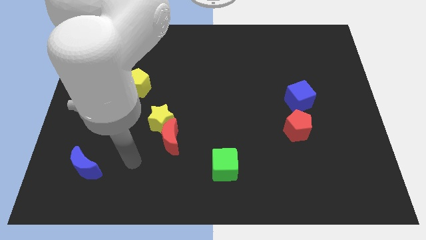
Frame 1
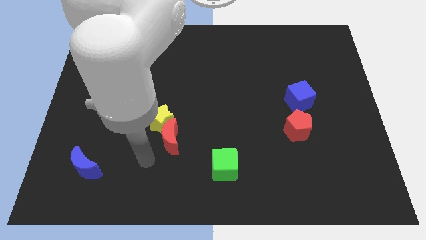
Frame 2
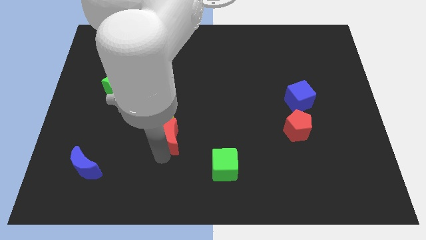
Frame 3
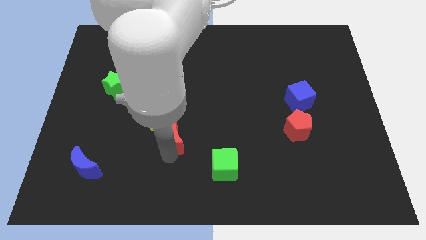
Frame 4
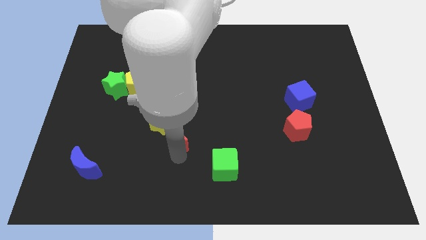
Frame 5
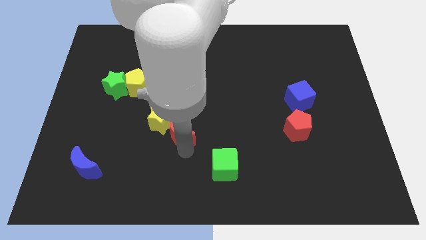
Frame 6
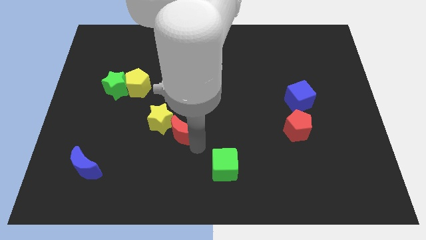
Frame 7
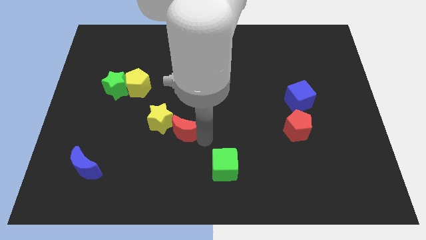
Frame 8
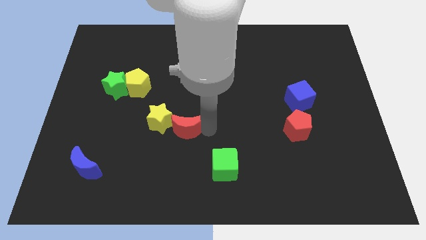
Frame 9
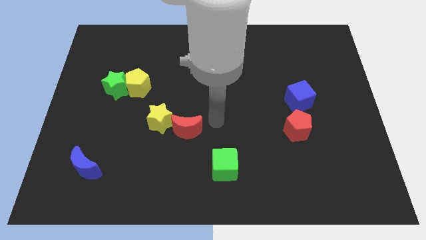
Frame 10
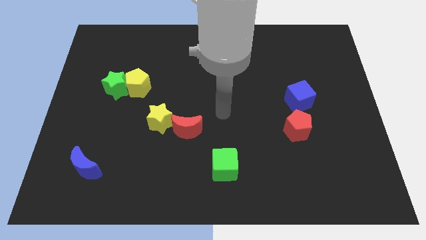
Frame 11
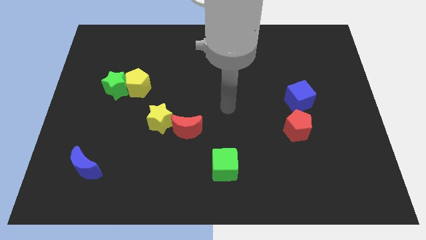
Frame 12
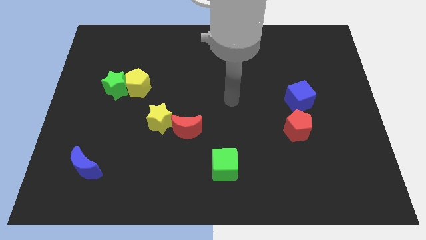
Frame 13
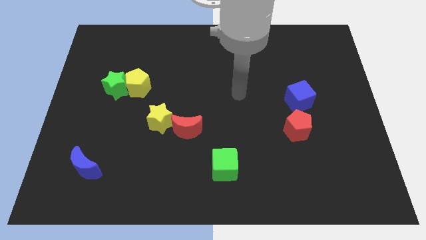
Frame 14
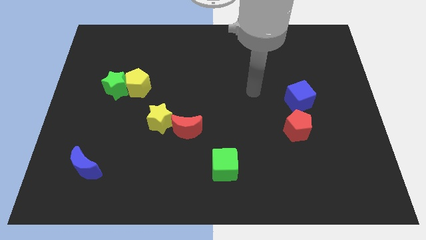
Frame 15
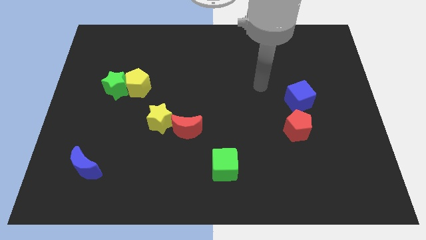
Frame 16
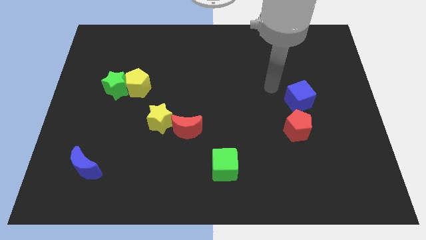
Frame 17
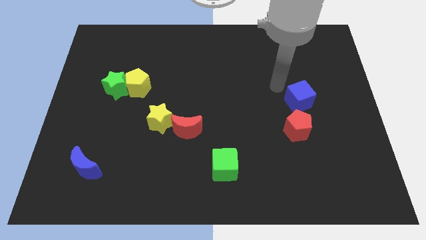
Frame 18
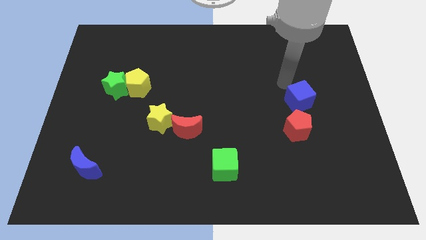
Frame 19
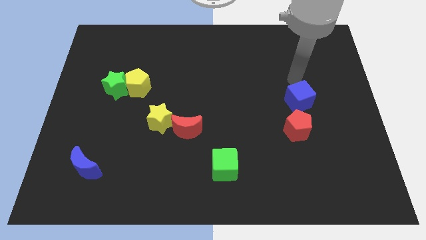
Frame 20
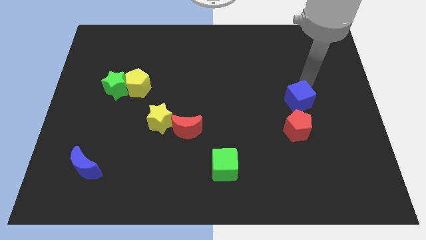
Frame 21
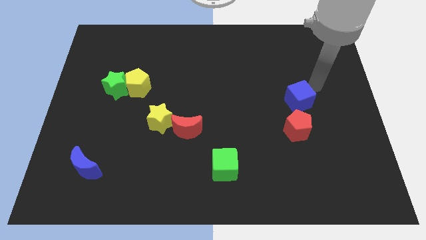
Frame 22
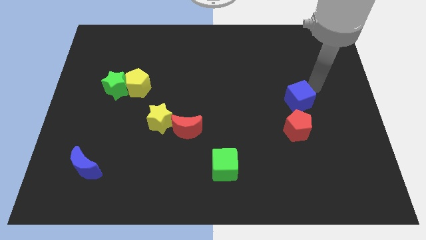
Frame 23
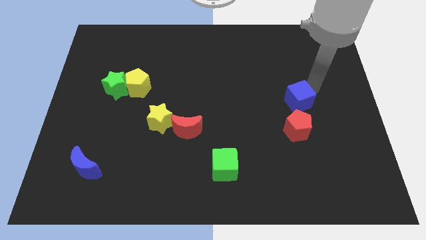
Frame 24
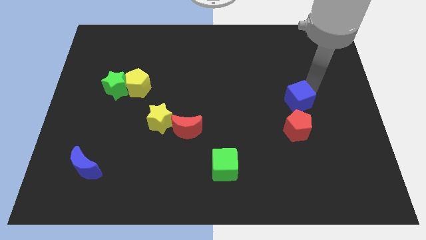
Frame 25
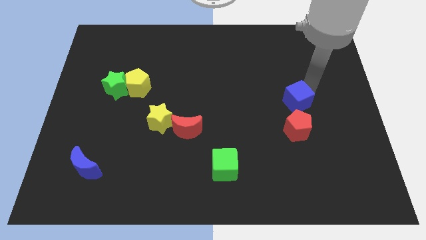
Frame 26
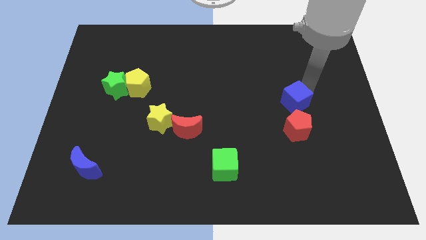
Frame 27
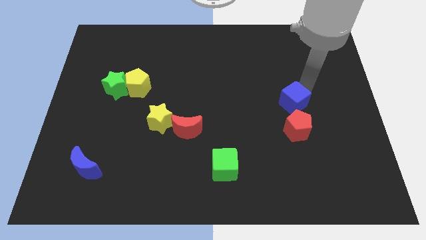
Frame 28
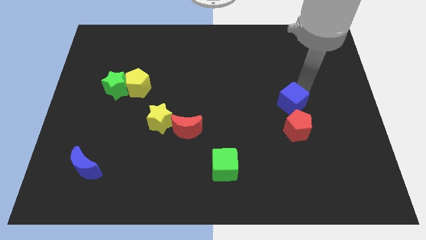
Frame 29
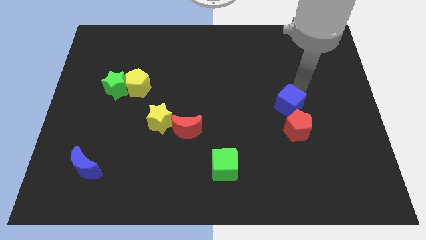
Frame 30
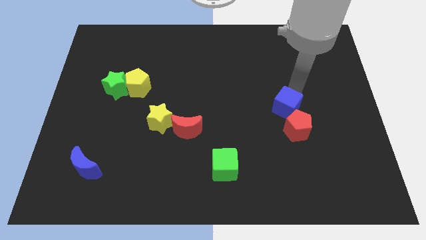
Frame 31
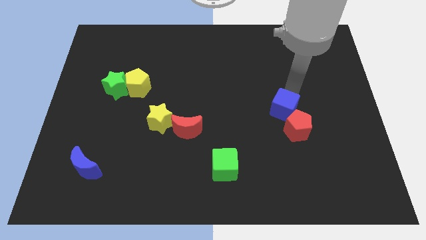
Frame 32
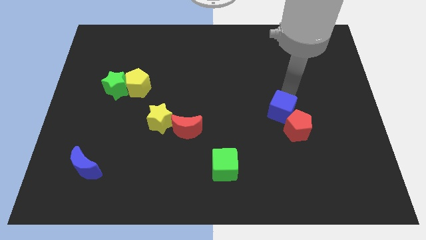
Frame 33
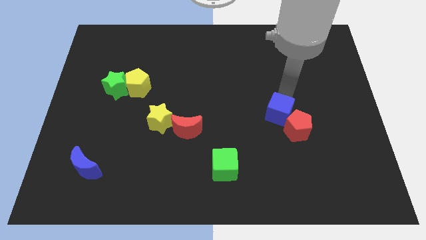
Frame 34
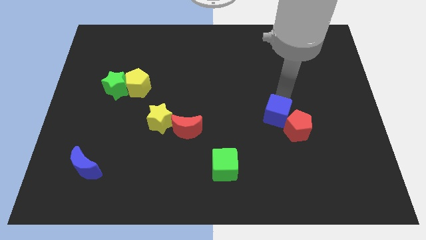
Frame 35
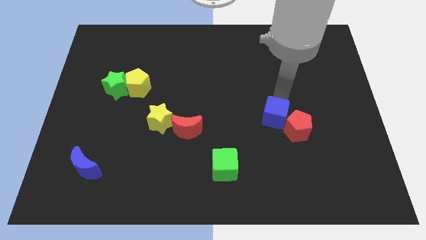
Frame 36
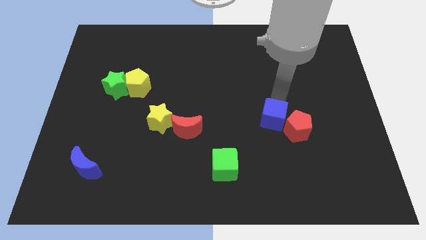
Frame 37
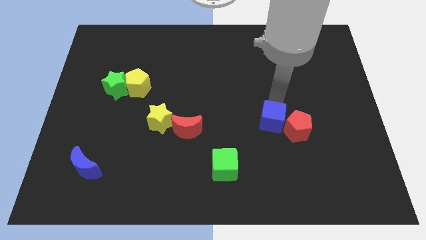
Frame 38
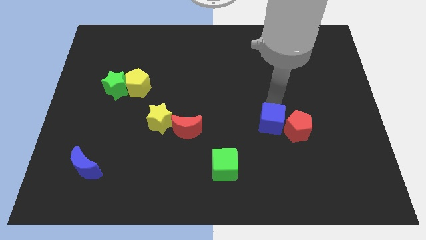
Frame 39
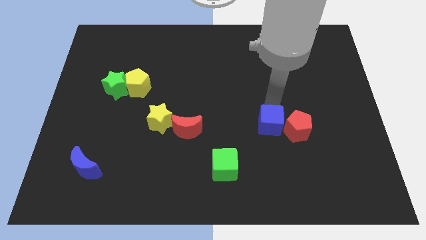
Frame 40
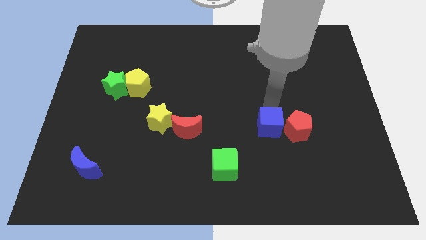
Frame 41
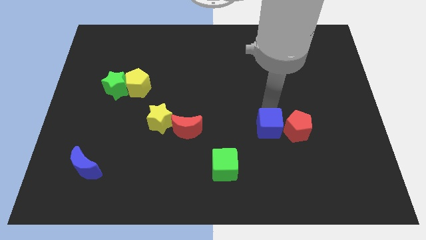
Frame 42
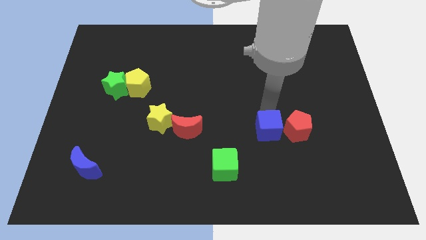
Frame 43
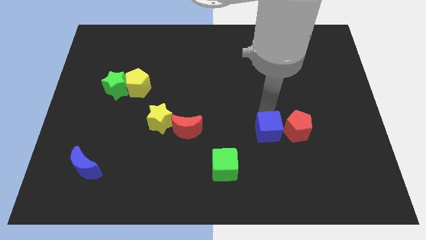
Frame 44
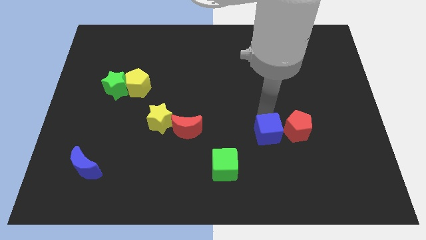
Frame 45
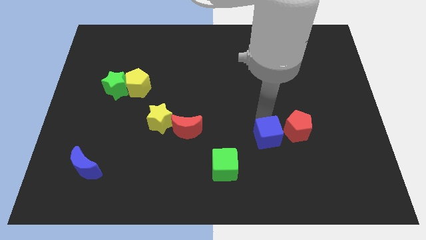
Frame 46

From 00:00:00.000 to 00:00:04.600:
push the blue cube slightly downwards

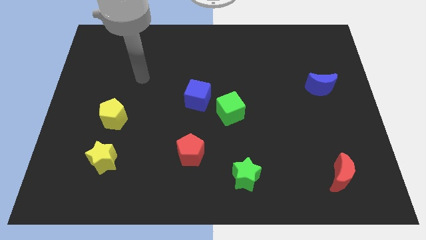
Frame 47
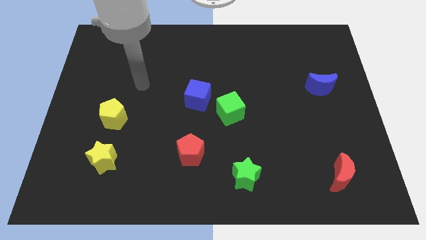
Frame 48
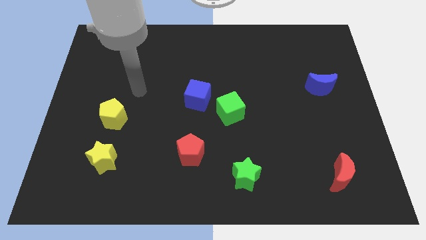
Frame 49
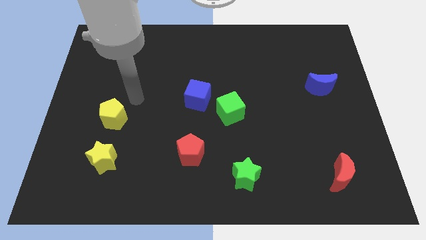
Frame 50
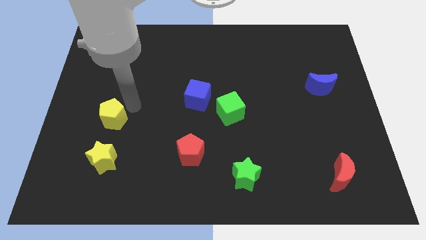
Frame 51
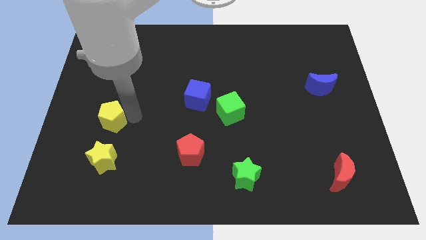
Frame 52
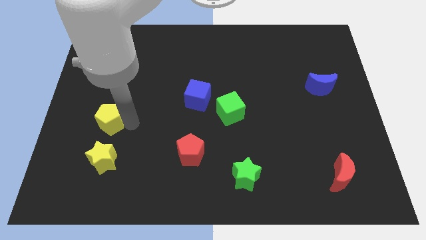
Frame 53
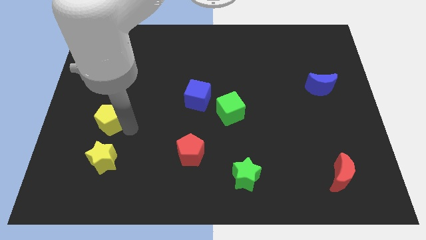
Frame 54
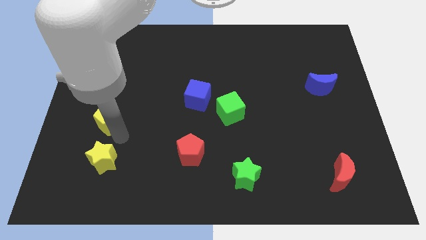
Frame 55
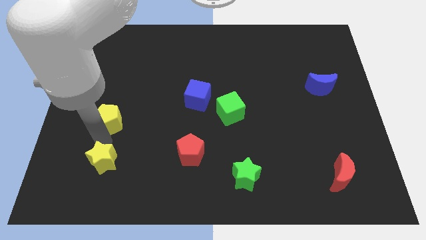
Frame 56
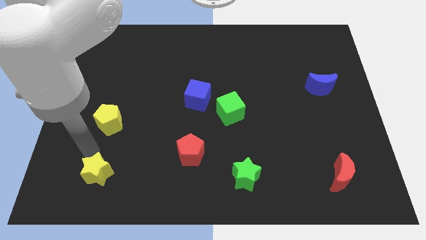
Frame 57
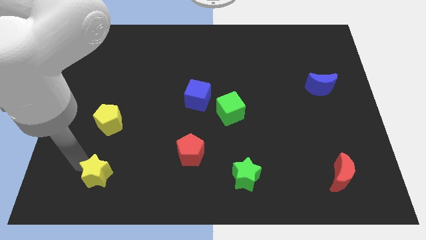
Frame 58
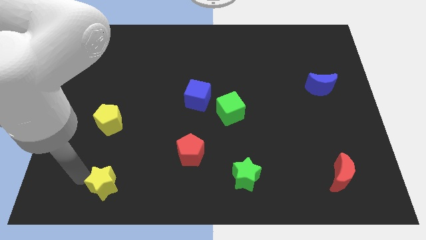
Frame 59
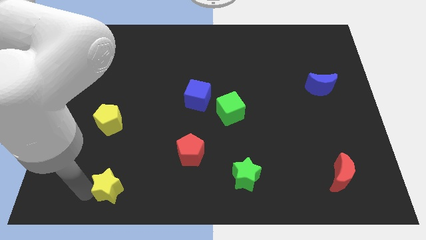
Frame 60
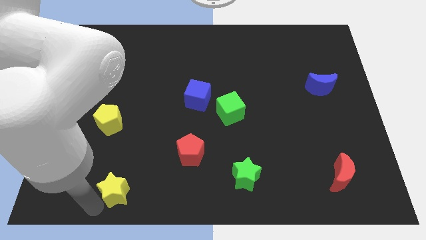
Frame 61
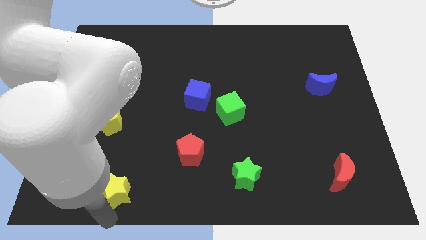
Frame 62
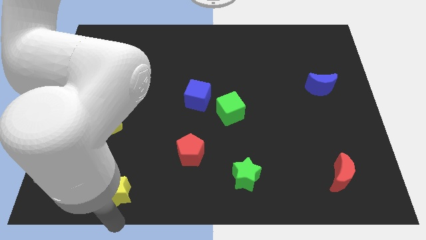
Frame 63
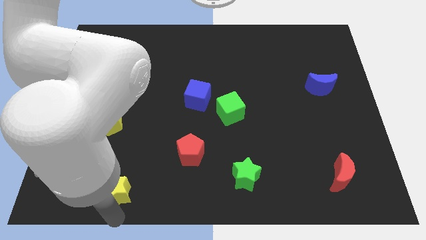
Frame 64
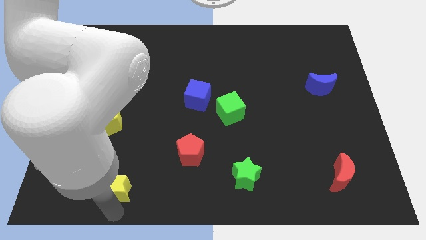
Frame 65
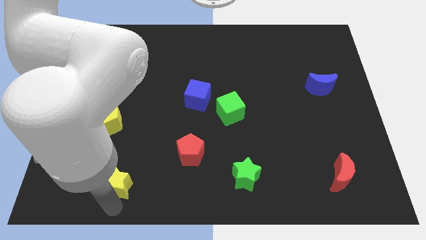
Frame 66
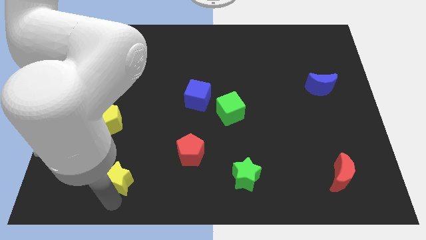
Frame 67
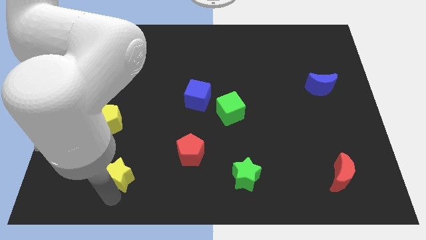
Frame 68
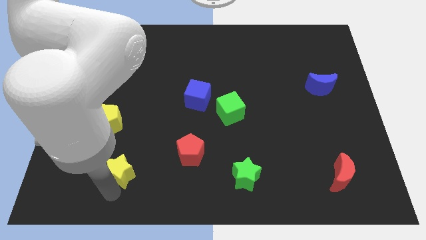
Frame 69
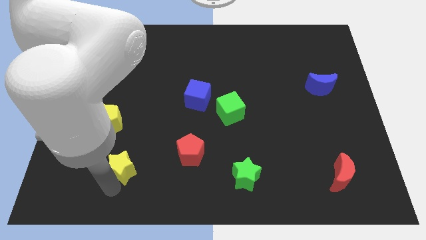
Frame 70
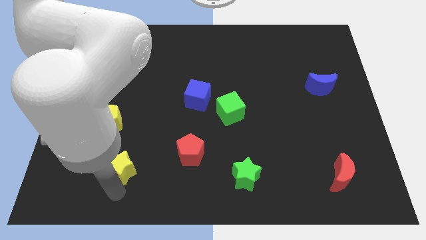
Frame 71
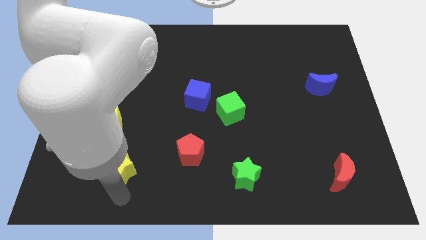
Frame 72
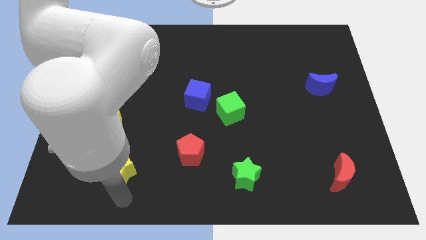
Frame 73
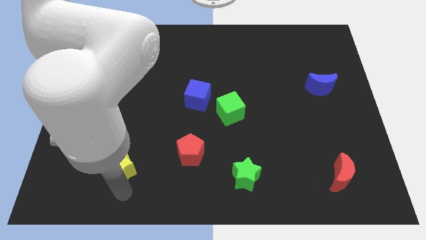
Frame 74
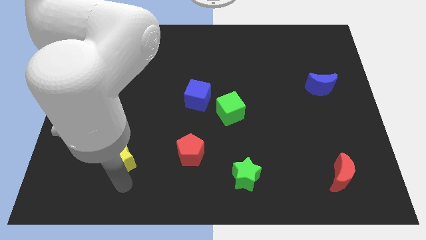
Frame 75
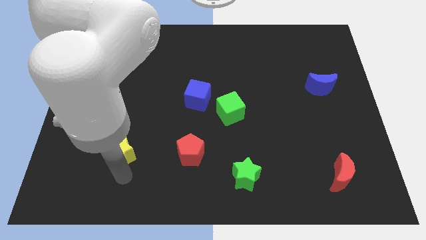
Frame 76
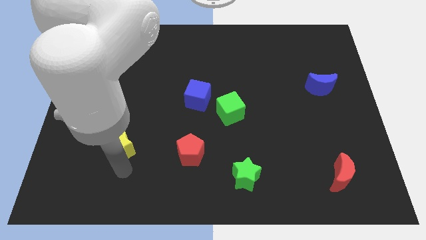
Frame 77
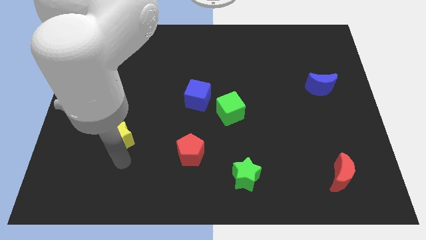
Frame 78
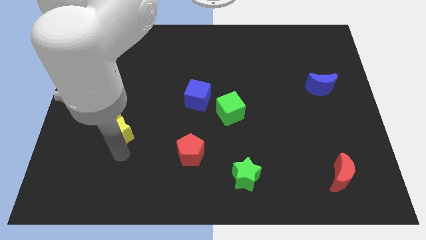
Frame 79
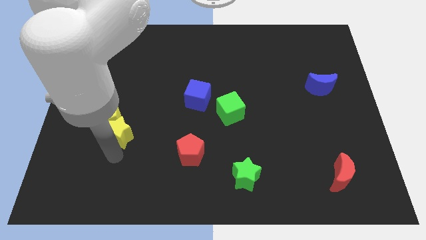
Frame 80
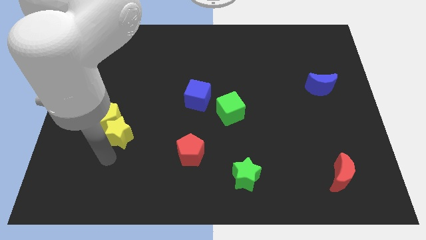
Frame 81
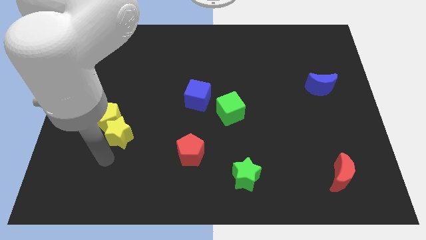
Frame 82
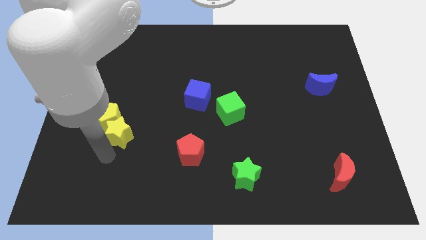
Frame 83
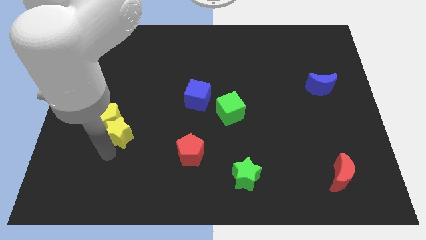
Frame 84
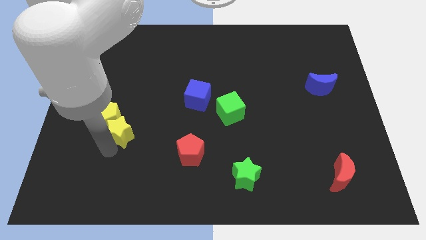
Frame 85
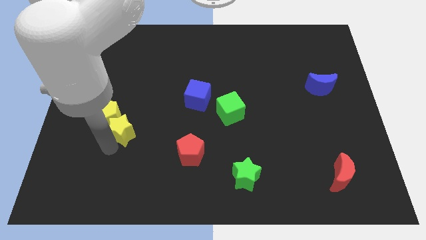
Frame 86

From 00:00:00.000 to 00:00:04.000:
push the yellow star a little upwards
